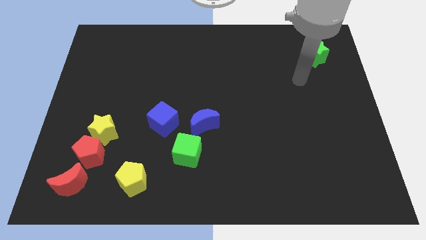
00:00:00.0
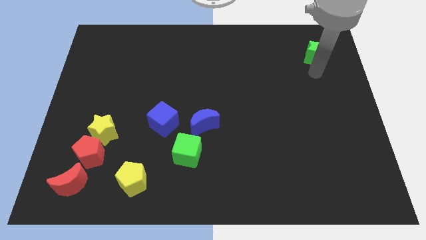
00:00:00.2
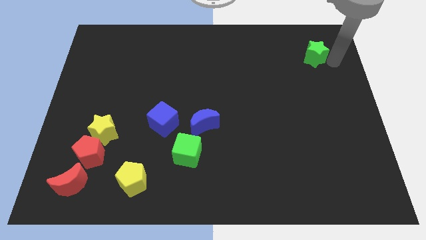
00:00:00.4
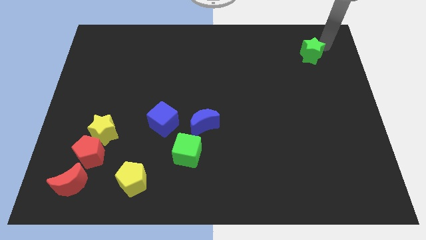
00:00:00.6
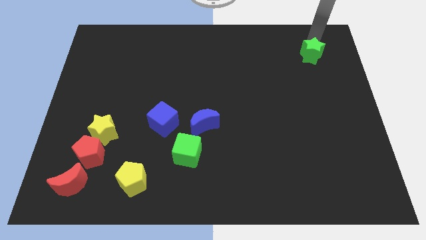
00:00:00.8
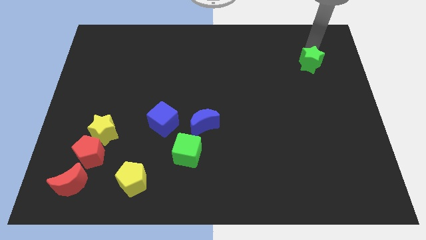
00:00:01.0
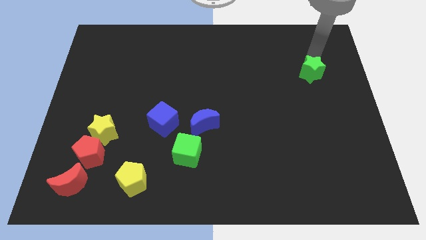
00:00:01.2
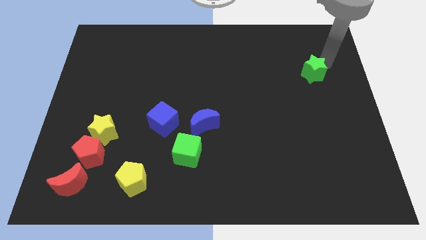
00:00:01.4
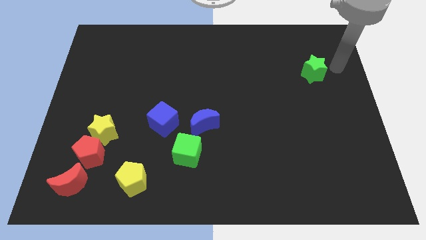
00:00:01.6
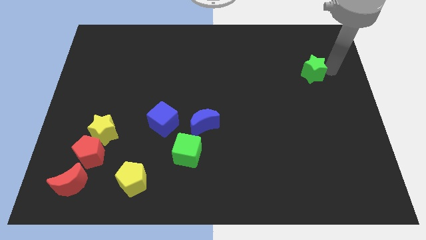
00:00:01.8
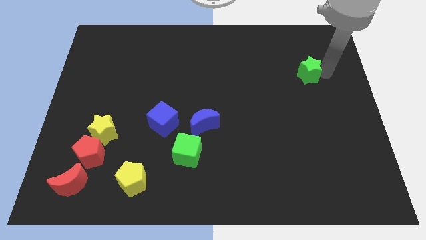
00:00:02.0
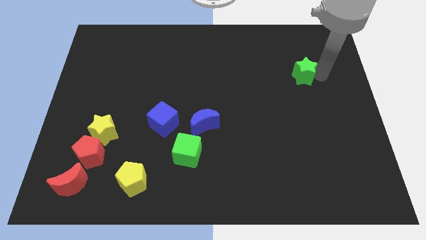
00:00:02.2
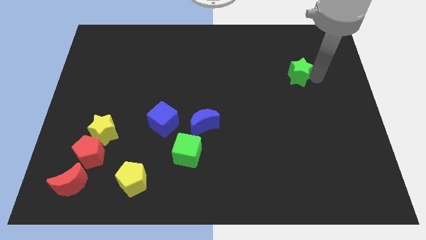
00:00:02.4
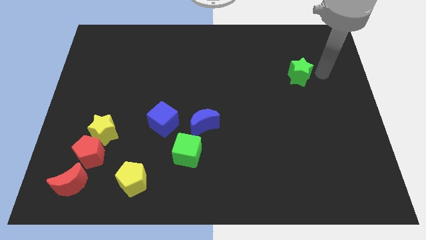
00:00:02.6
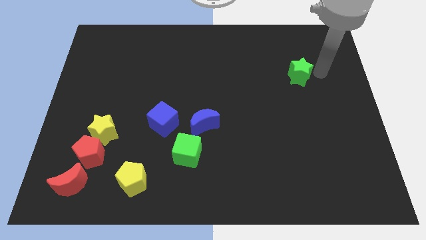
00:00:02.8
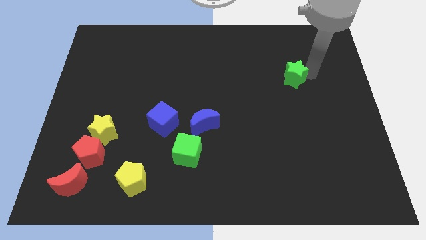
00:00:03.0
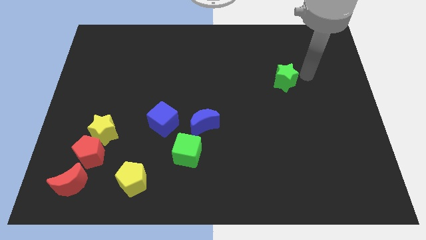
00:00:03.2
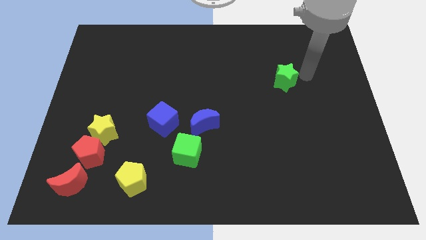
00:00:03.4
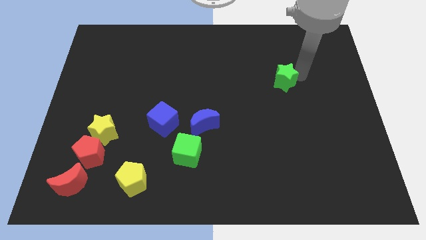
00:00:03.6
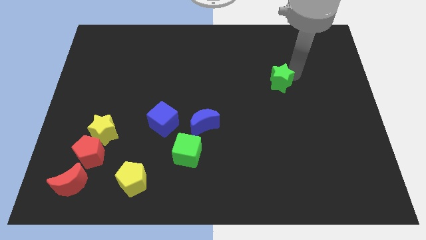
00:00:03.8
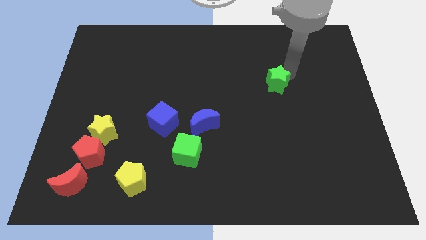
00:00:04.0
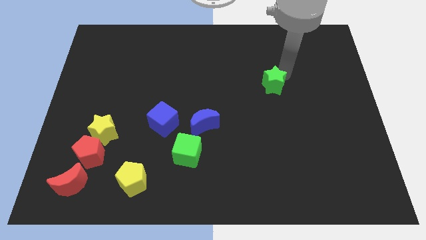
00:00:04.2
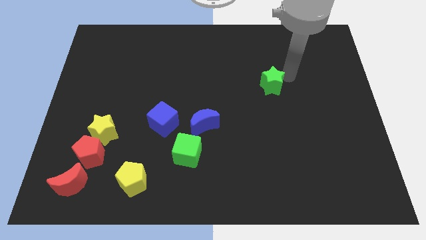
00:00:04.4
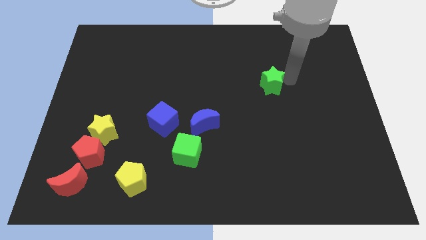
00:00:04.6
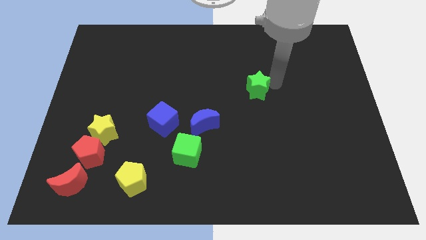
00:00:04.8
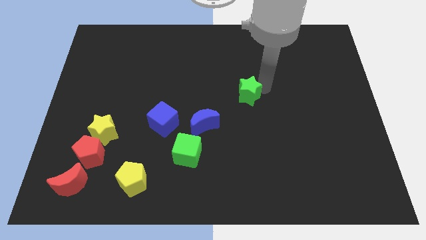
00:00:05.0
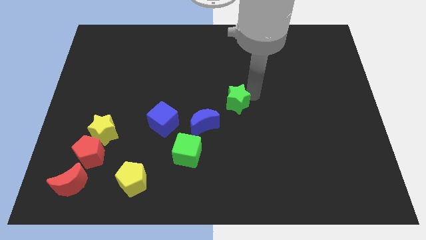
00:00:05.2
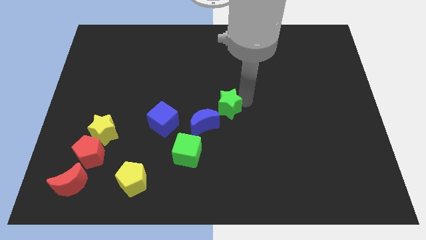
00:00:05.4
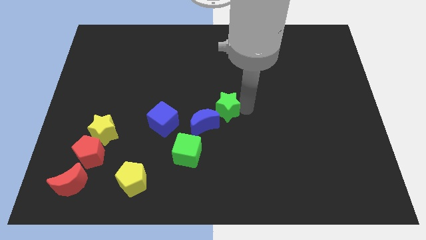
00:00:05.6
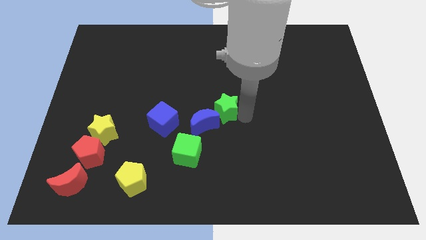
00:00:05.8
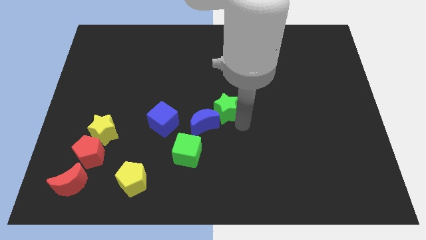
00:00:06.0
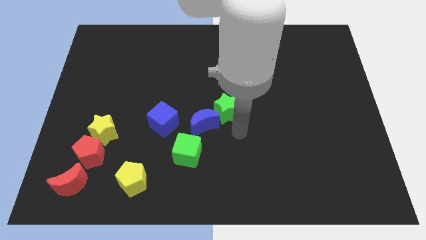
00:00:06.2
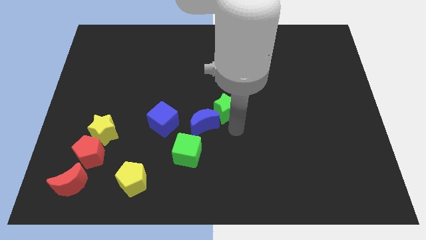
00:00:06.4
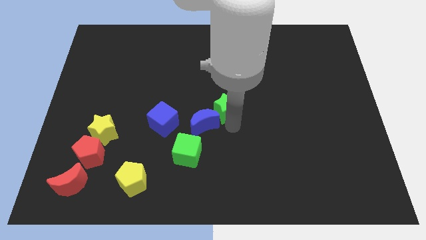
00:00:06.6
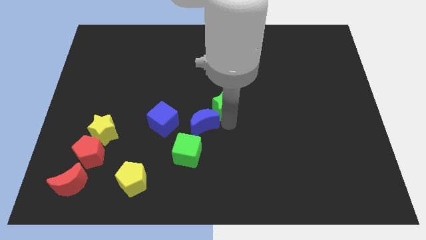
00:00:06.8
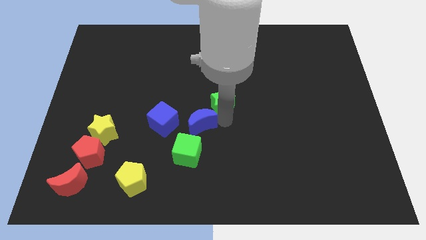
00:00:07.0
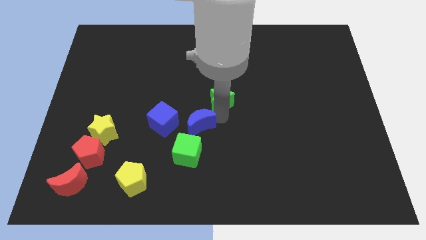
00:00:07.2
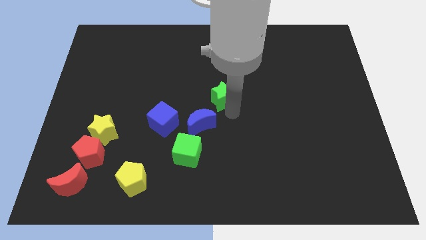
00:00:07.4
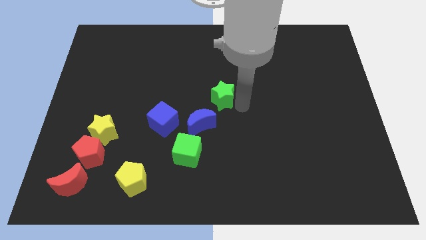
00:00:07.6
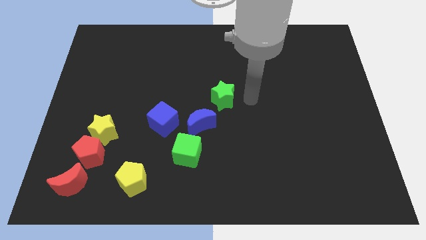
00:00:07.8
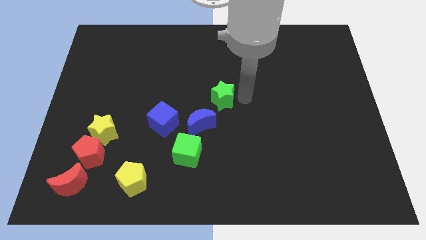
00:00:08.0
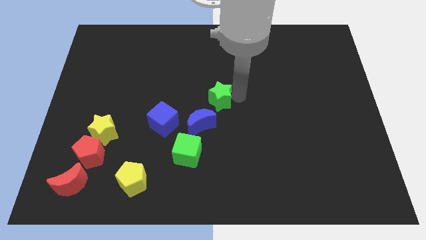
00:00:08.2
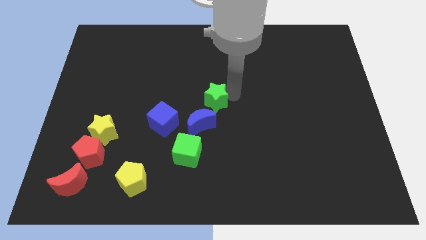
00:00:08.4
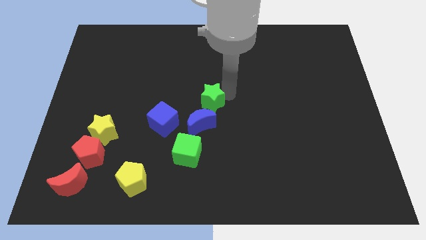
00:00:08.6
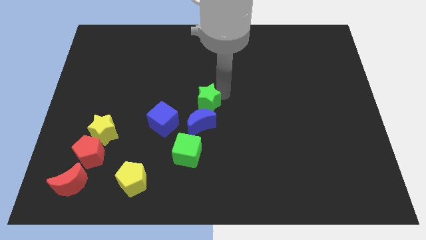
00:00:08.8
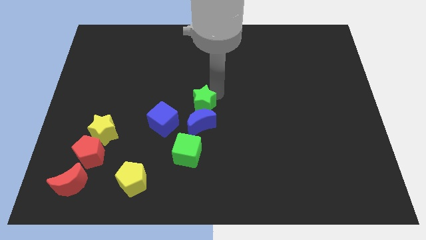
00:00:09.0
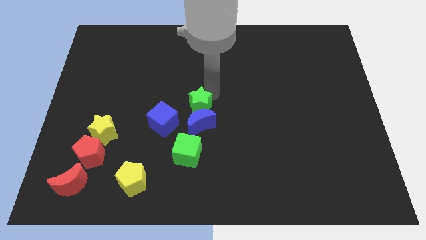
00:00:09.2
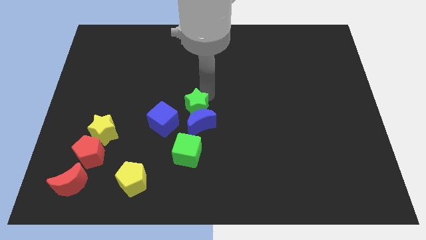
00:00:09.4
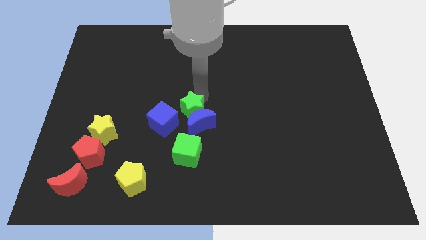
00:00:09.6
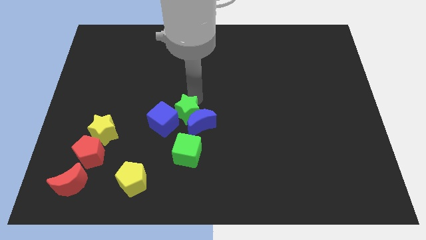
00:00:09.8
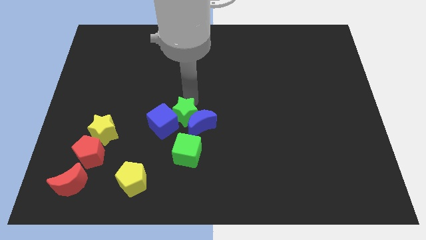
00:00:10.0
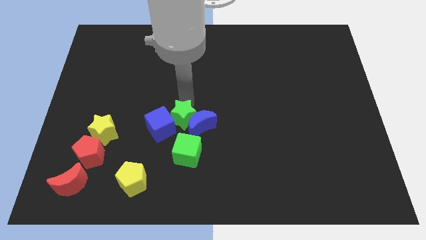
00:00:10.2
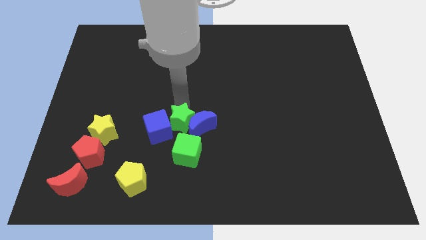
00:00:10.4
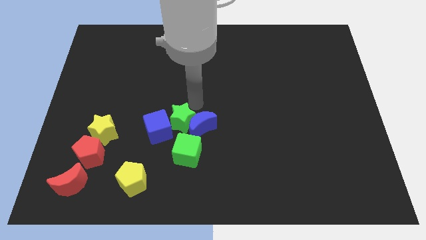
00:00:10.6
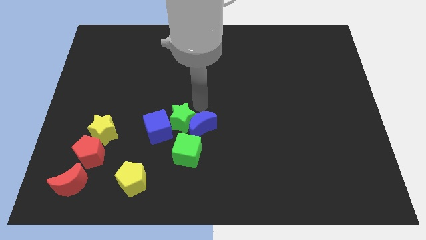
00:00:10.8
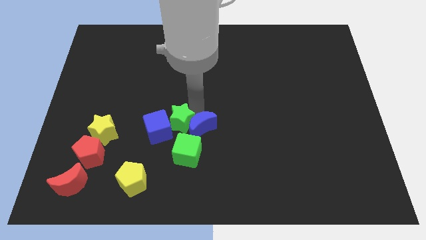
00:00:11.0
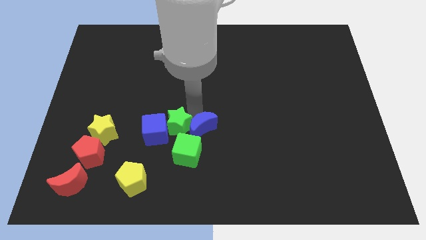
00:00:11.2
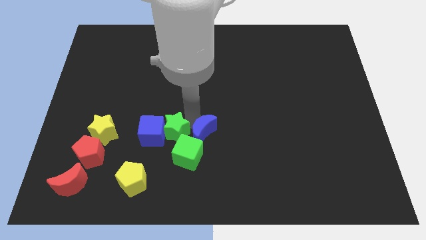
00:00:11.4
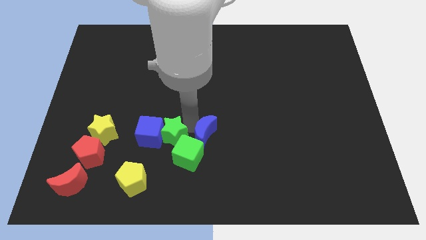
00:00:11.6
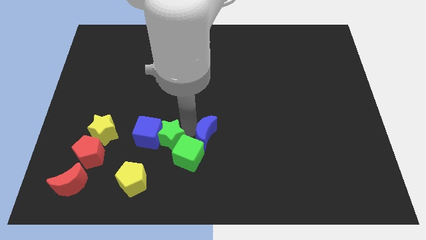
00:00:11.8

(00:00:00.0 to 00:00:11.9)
push the green star to the left of the green cube

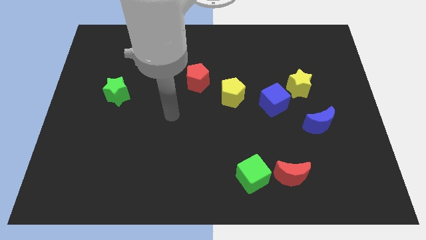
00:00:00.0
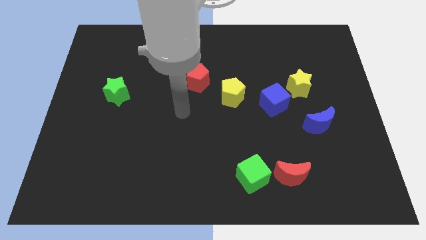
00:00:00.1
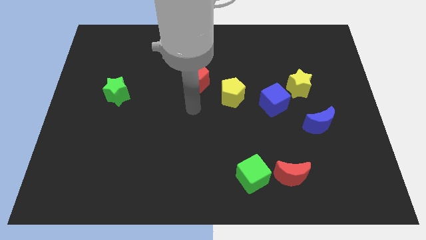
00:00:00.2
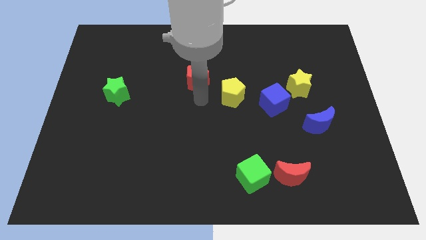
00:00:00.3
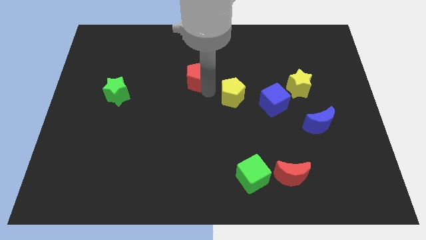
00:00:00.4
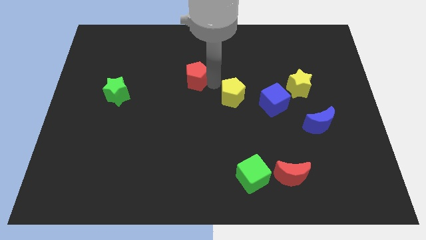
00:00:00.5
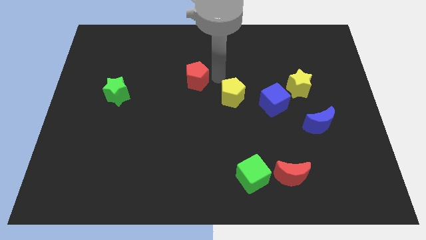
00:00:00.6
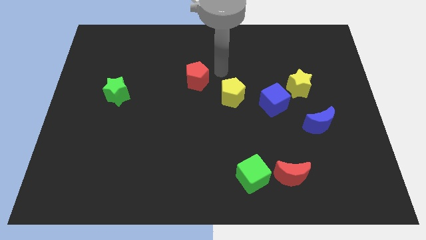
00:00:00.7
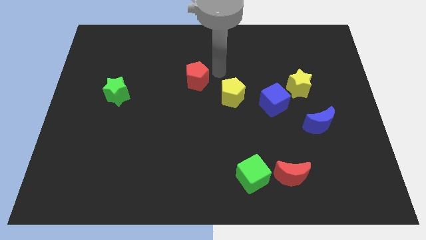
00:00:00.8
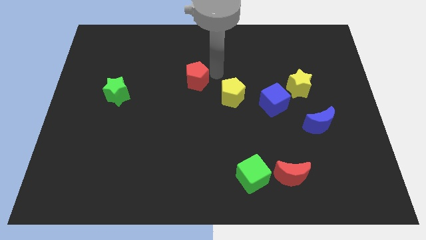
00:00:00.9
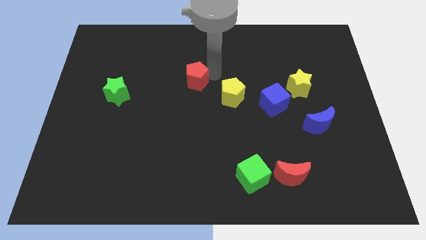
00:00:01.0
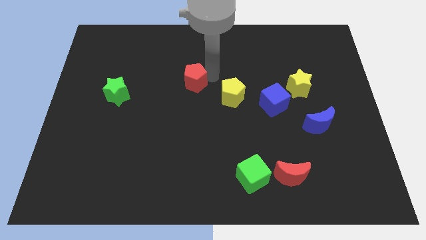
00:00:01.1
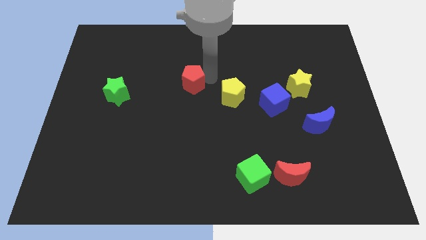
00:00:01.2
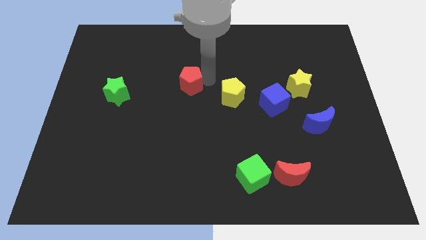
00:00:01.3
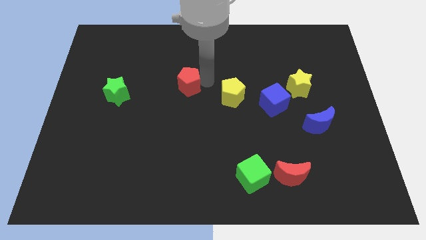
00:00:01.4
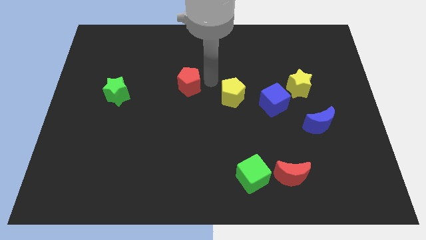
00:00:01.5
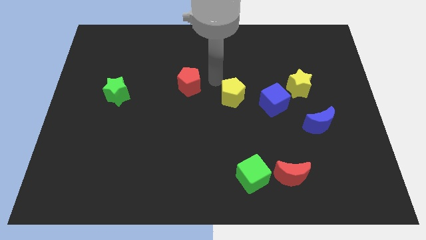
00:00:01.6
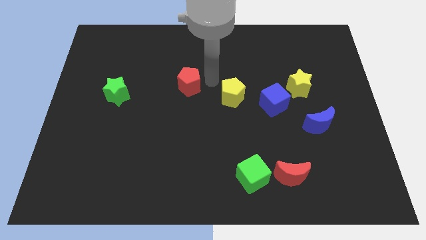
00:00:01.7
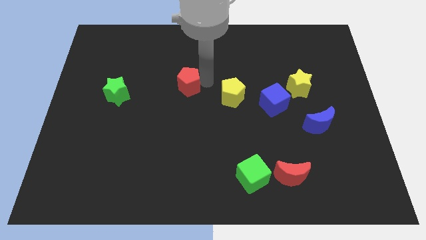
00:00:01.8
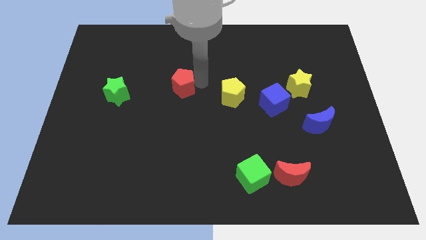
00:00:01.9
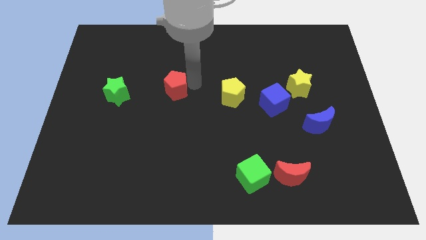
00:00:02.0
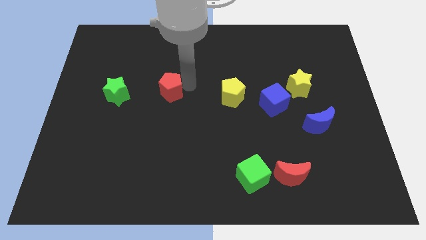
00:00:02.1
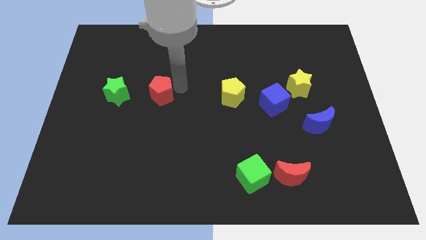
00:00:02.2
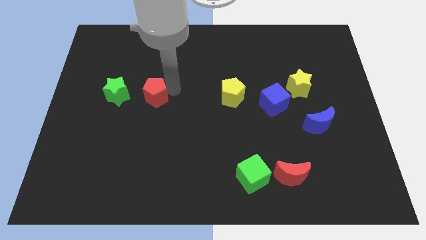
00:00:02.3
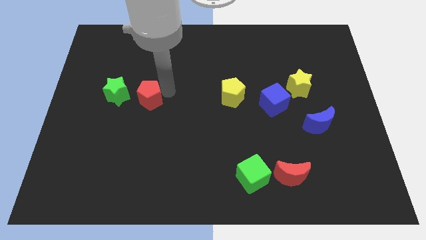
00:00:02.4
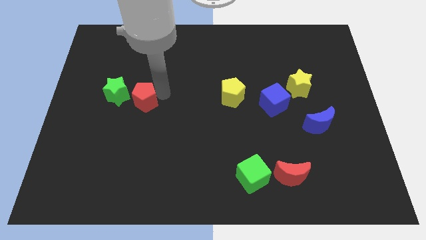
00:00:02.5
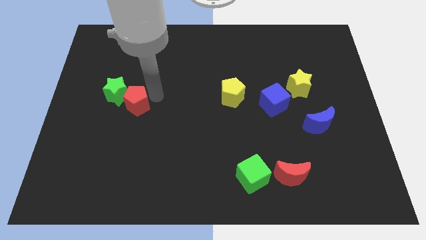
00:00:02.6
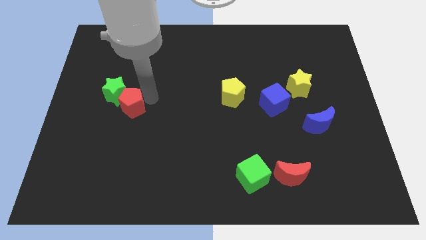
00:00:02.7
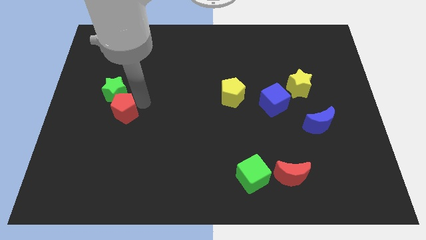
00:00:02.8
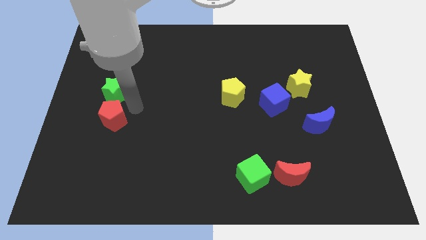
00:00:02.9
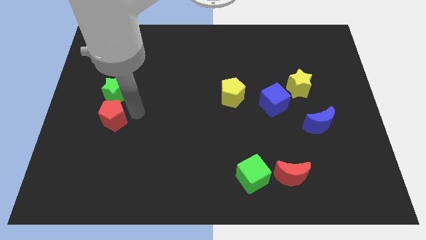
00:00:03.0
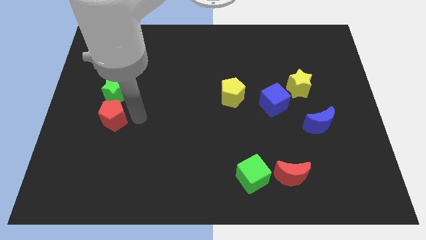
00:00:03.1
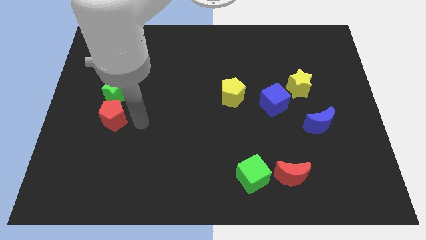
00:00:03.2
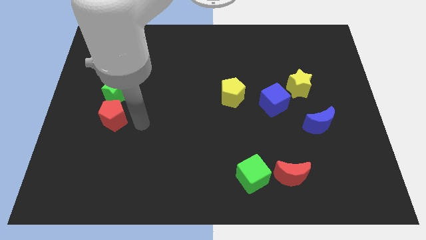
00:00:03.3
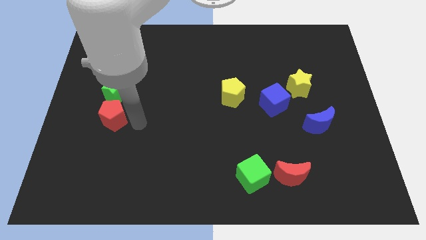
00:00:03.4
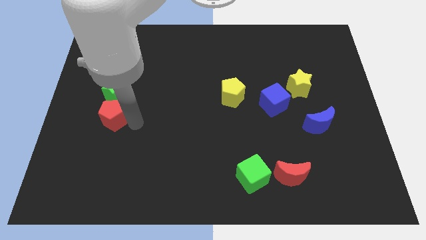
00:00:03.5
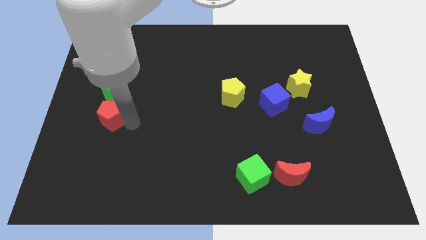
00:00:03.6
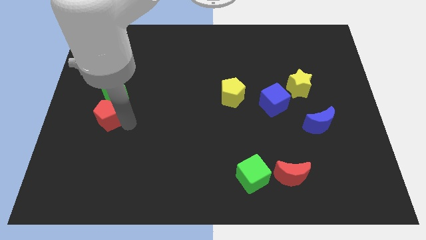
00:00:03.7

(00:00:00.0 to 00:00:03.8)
move the red pentagon to the bottom left of the green star
